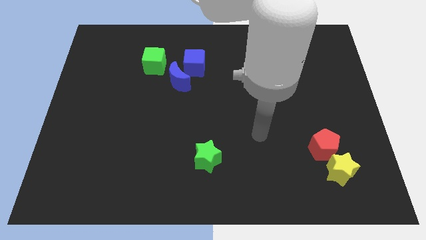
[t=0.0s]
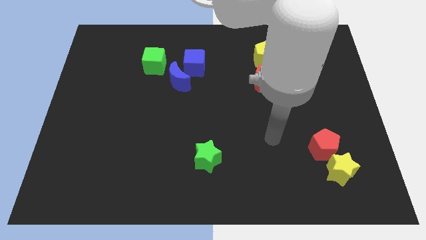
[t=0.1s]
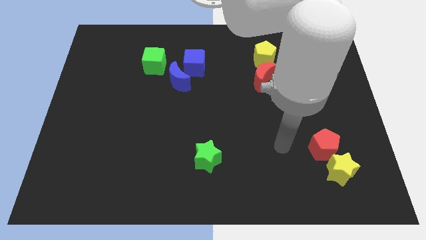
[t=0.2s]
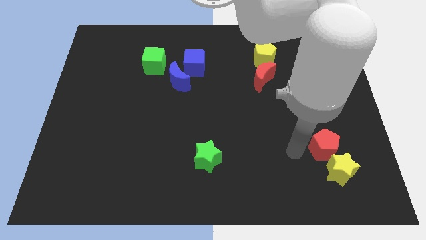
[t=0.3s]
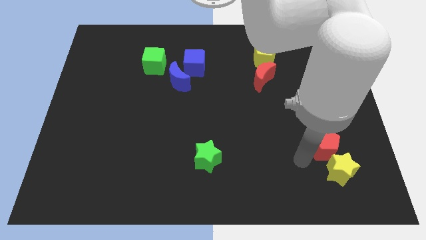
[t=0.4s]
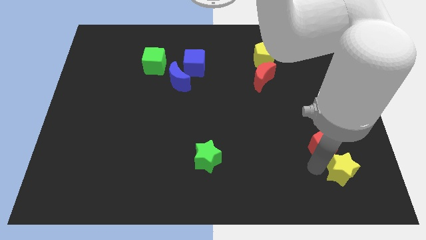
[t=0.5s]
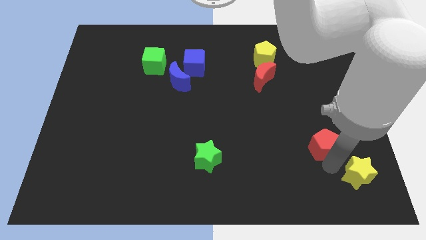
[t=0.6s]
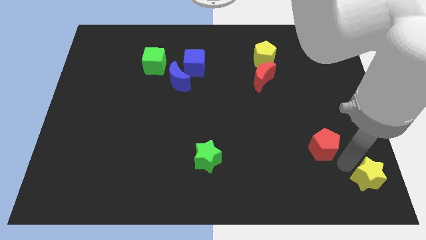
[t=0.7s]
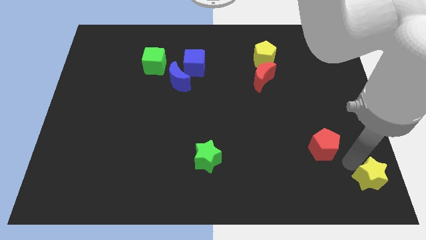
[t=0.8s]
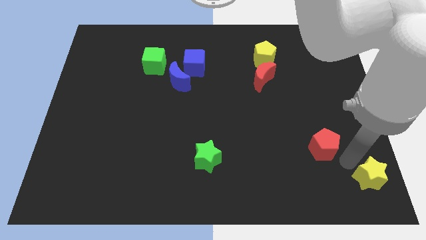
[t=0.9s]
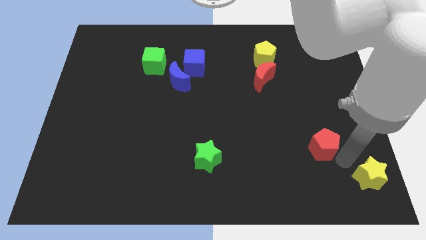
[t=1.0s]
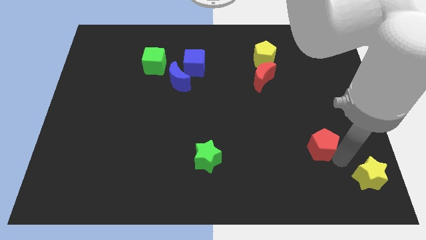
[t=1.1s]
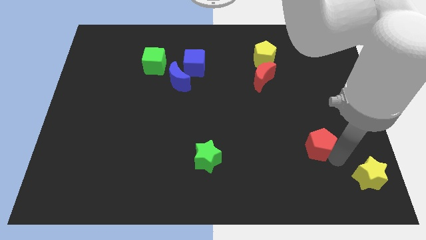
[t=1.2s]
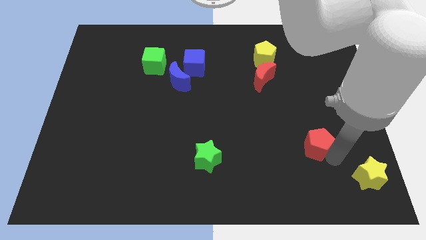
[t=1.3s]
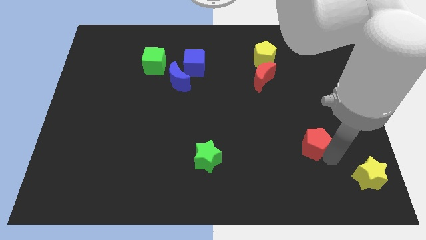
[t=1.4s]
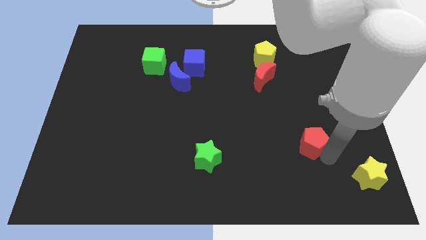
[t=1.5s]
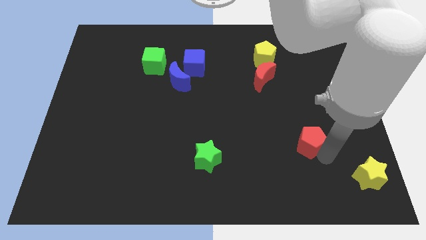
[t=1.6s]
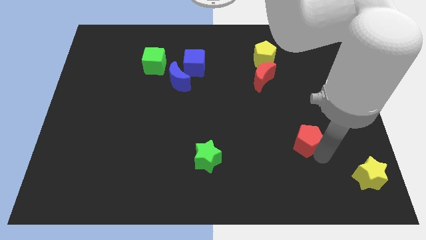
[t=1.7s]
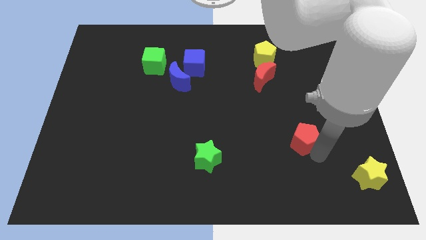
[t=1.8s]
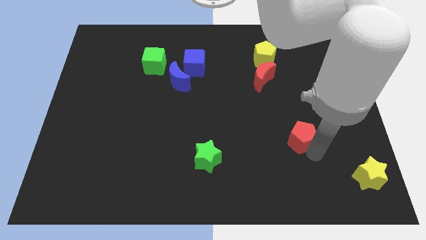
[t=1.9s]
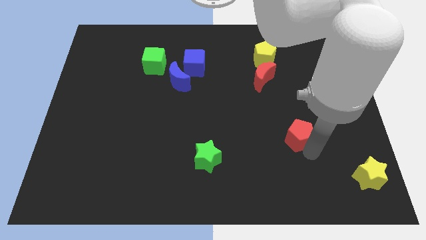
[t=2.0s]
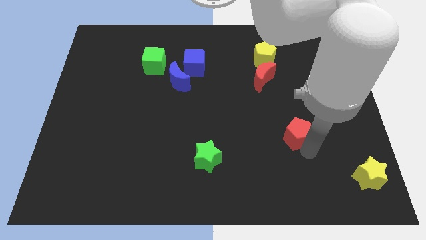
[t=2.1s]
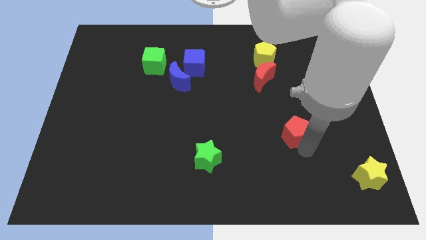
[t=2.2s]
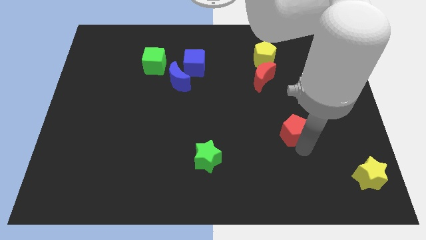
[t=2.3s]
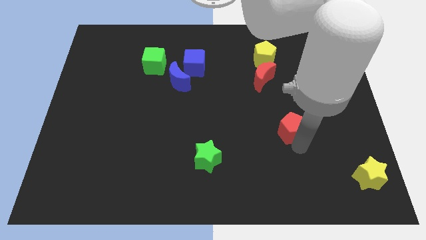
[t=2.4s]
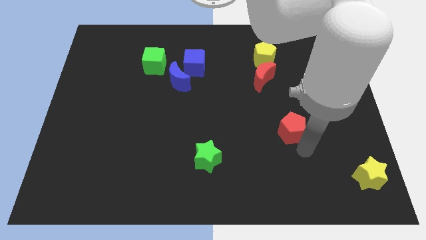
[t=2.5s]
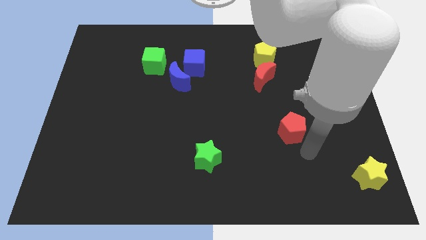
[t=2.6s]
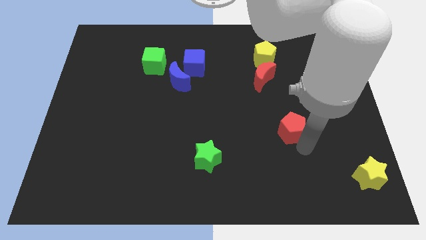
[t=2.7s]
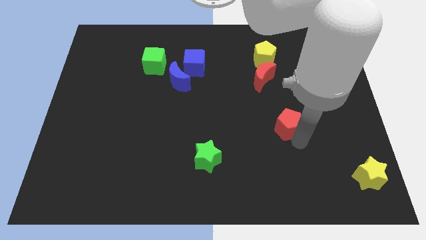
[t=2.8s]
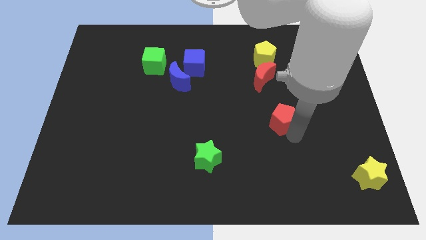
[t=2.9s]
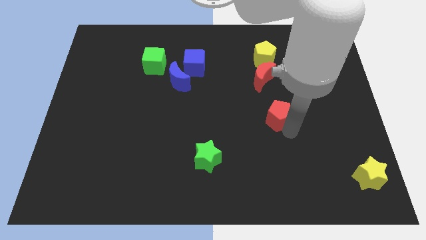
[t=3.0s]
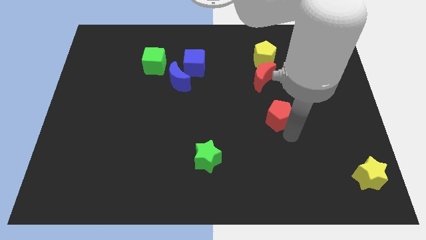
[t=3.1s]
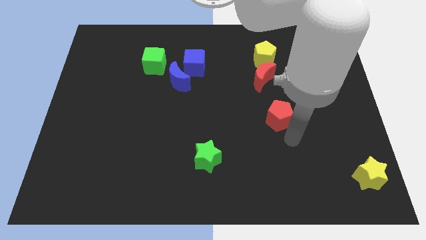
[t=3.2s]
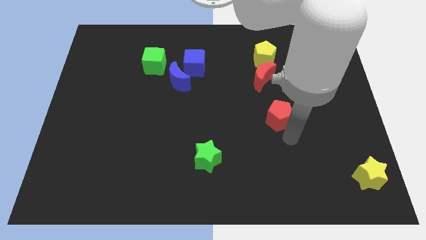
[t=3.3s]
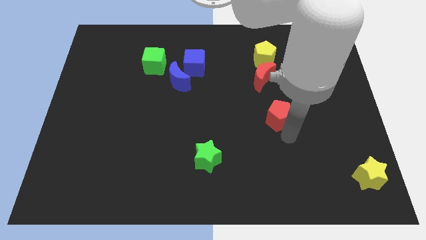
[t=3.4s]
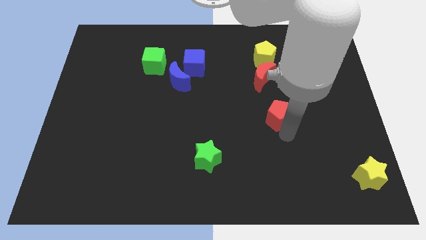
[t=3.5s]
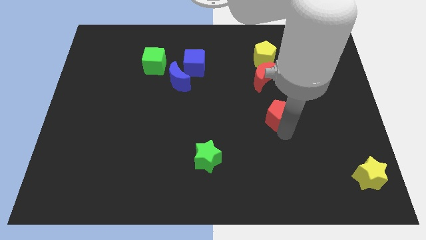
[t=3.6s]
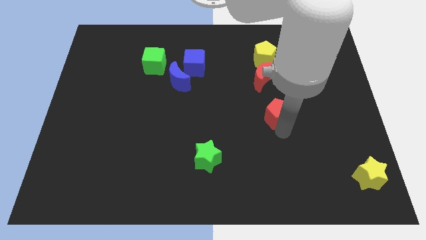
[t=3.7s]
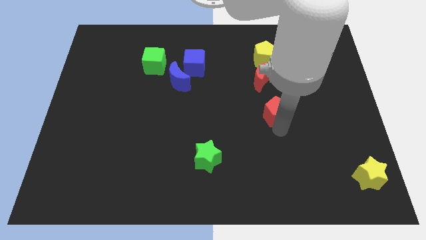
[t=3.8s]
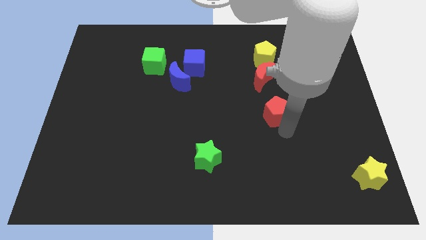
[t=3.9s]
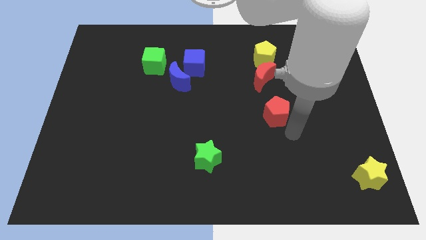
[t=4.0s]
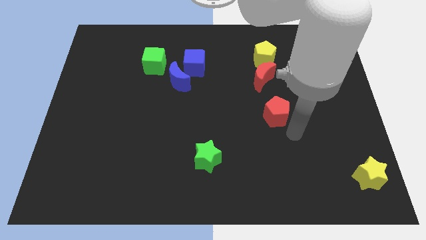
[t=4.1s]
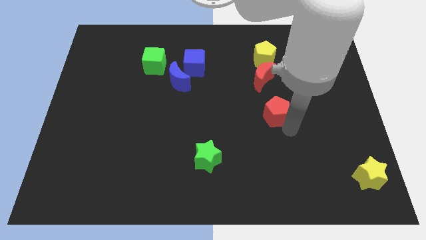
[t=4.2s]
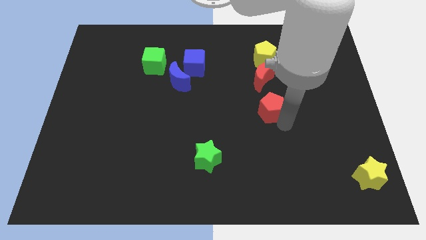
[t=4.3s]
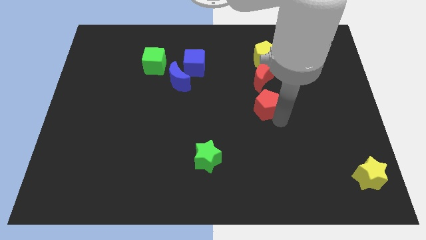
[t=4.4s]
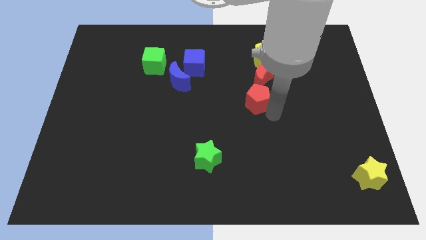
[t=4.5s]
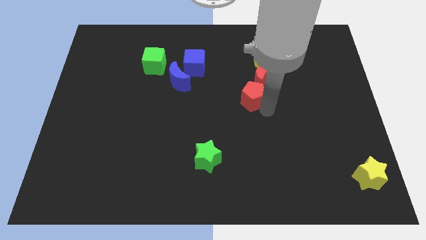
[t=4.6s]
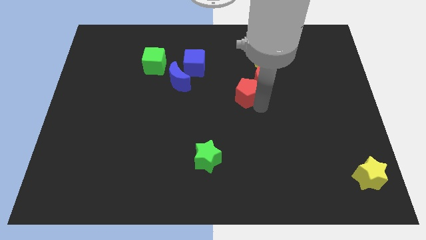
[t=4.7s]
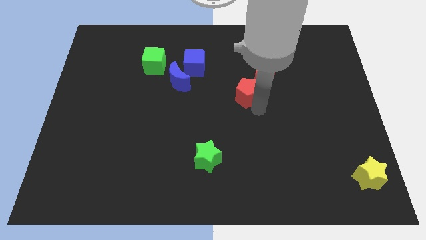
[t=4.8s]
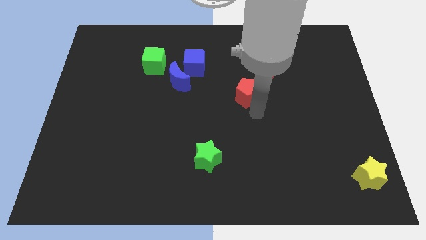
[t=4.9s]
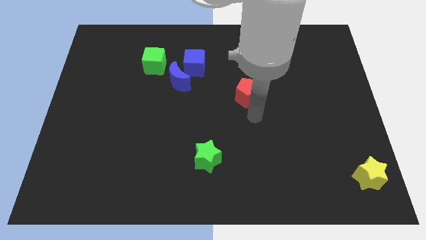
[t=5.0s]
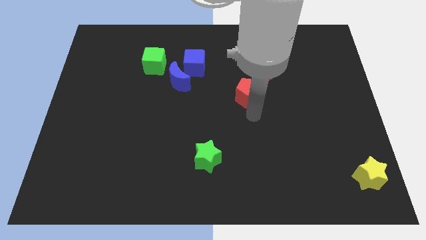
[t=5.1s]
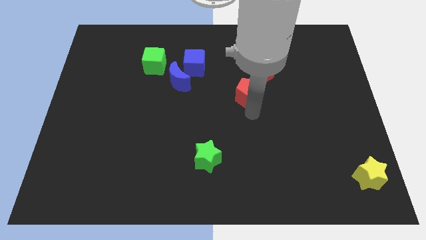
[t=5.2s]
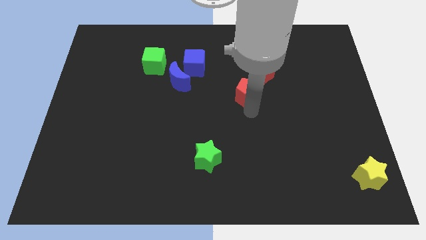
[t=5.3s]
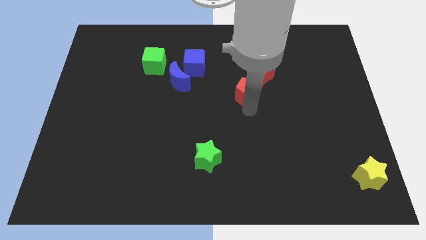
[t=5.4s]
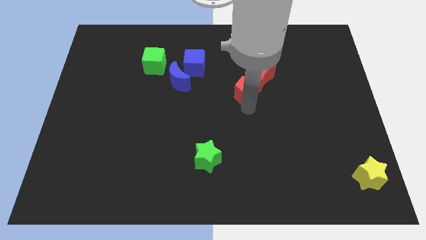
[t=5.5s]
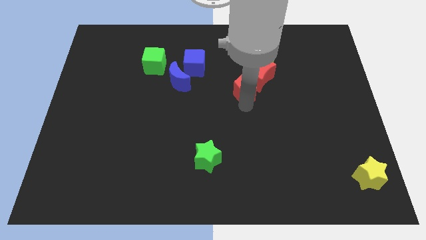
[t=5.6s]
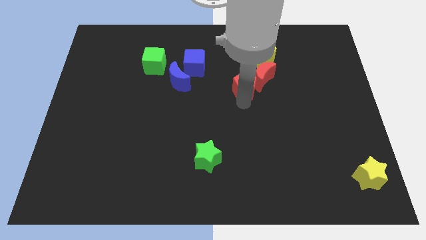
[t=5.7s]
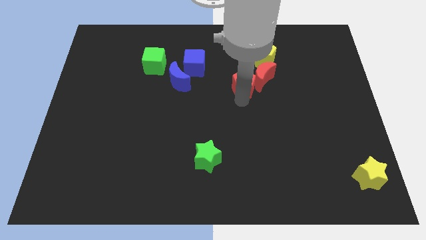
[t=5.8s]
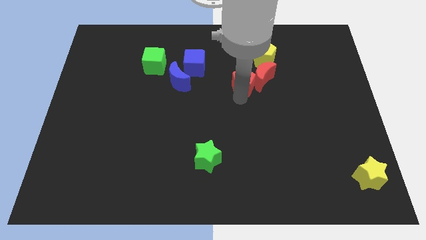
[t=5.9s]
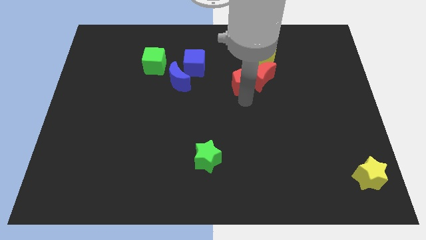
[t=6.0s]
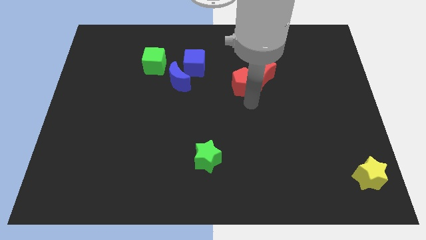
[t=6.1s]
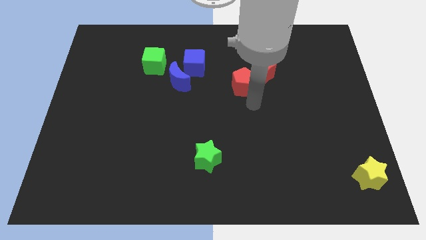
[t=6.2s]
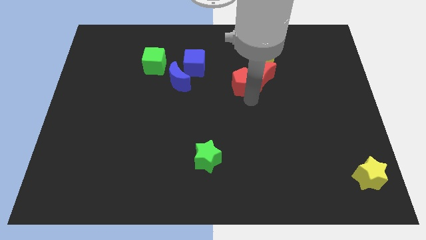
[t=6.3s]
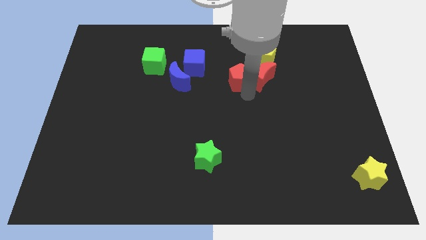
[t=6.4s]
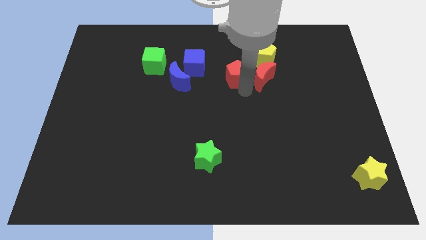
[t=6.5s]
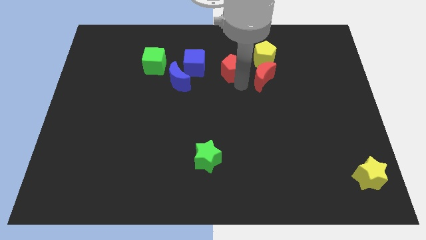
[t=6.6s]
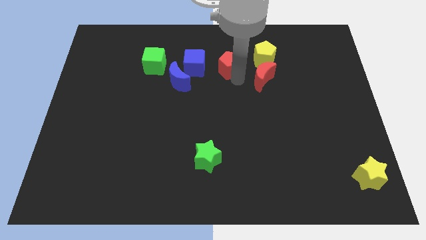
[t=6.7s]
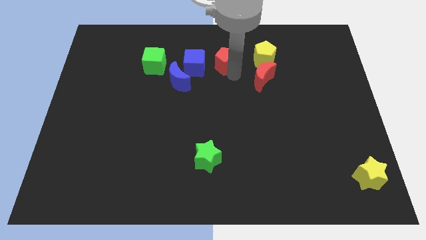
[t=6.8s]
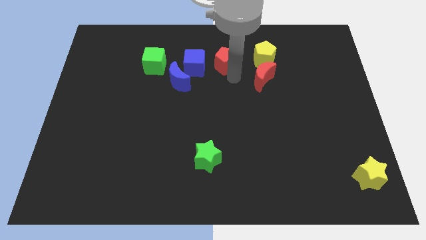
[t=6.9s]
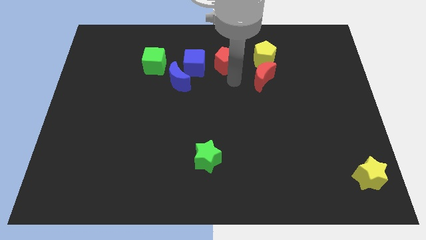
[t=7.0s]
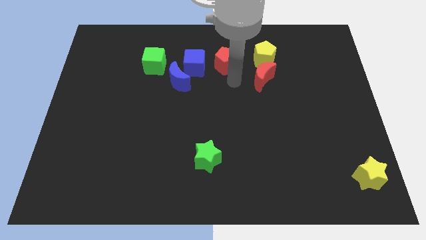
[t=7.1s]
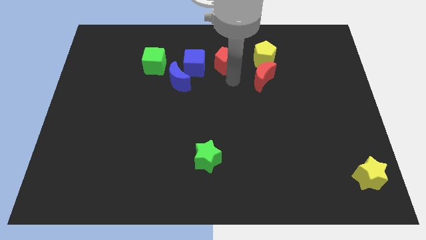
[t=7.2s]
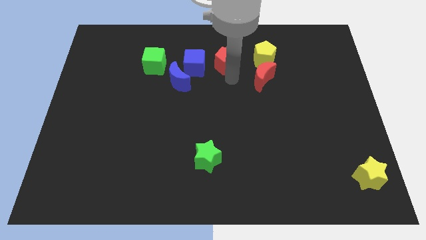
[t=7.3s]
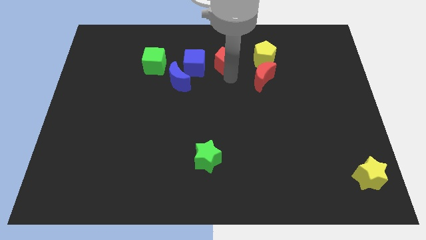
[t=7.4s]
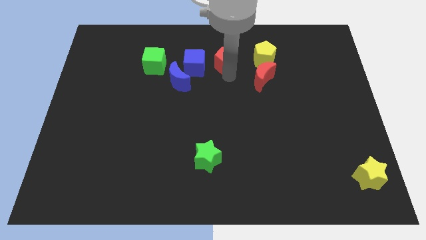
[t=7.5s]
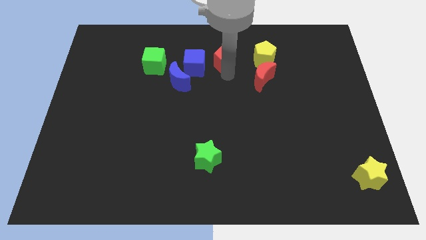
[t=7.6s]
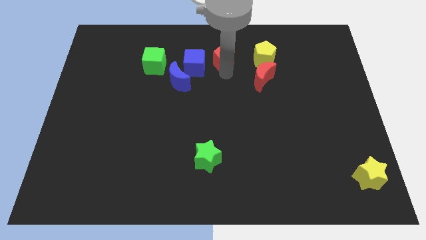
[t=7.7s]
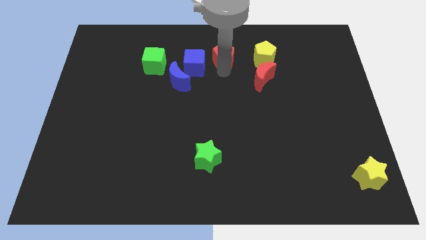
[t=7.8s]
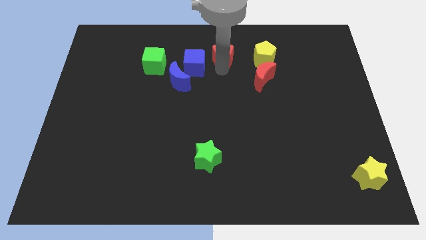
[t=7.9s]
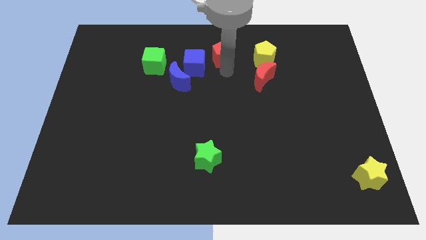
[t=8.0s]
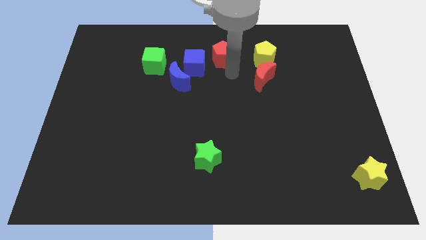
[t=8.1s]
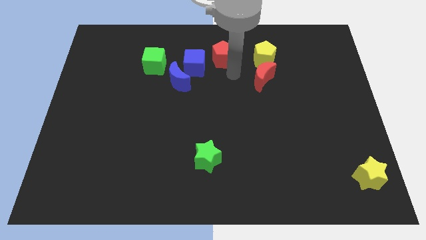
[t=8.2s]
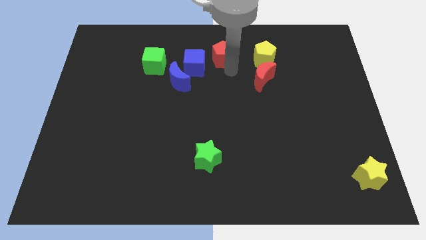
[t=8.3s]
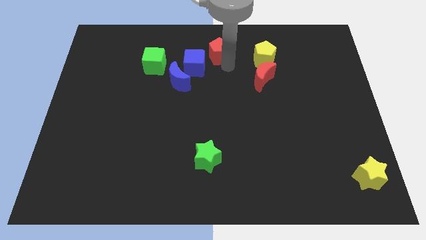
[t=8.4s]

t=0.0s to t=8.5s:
move the red pentagon to the towards your base
